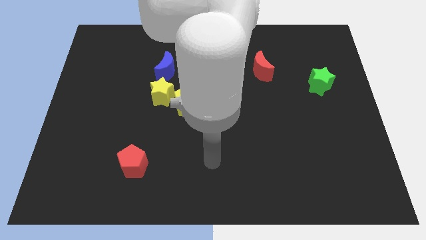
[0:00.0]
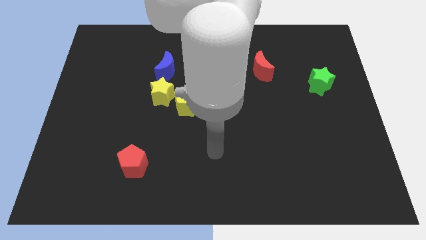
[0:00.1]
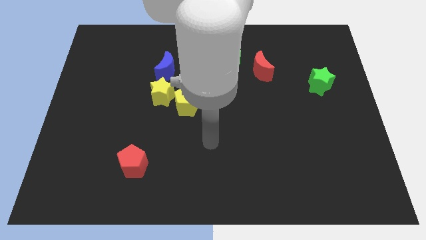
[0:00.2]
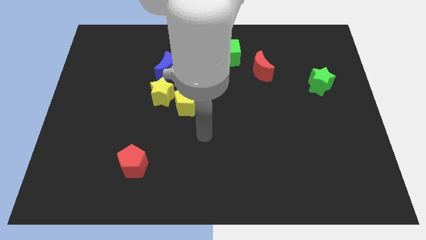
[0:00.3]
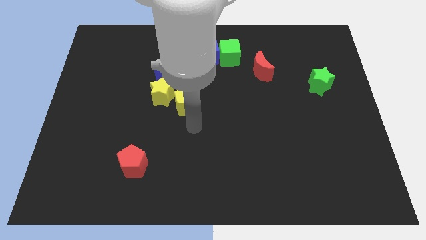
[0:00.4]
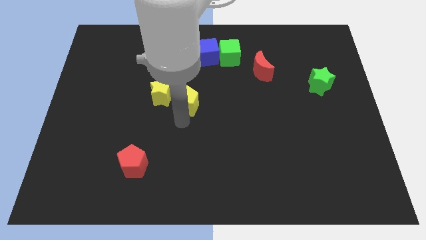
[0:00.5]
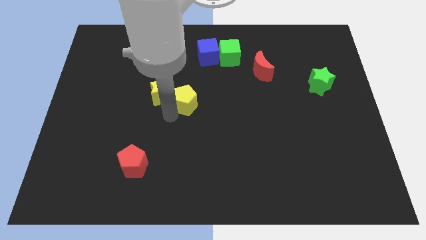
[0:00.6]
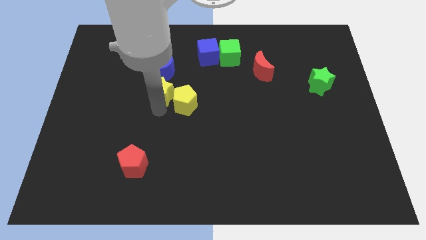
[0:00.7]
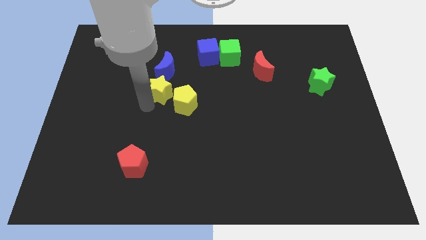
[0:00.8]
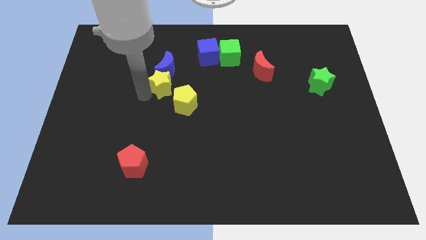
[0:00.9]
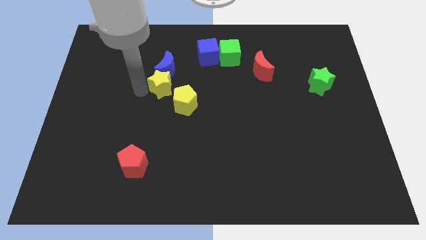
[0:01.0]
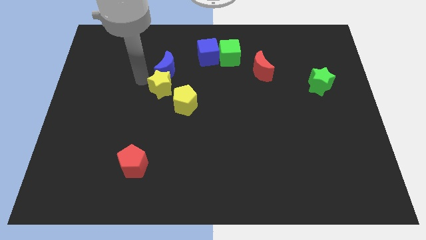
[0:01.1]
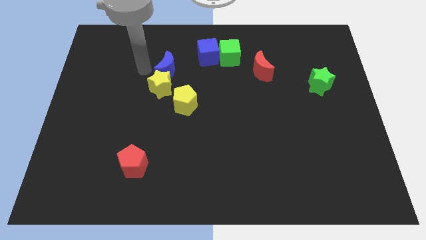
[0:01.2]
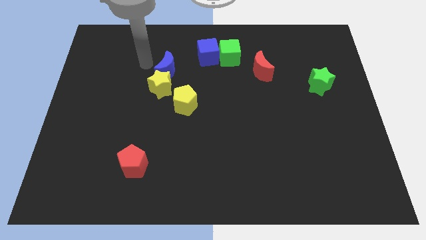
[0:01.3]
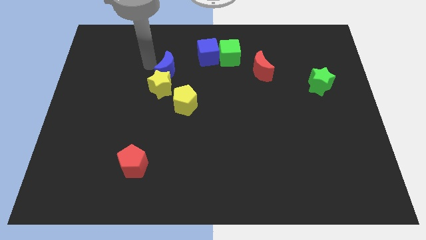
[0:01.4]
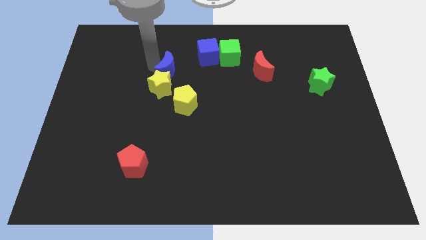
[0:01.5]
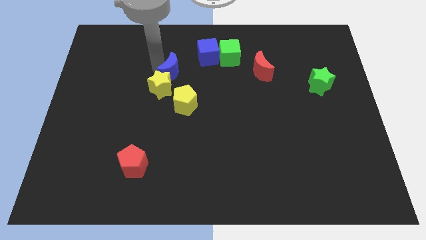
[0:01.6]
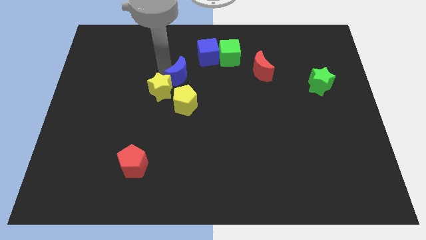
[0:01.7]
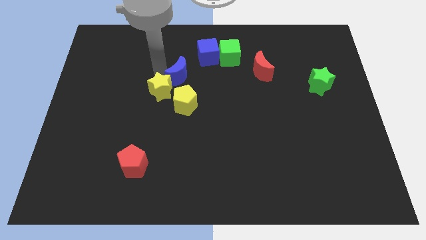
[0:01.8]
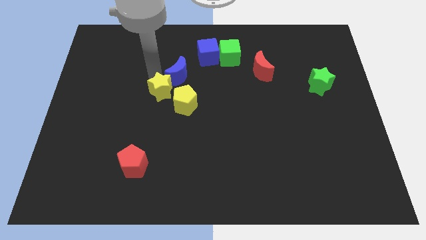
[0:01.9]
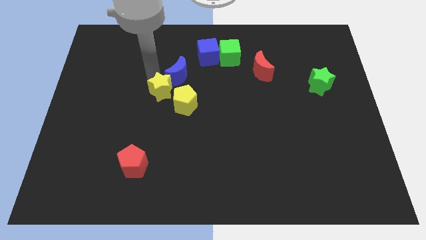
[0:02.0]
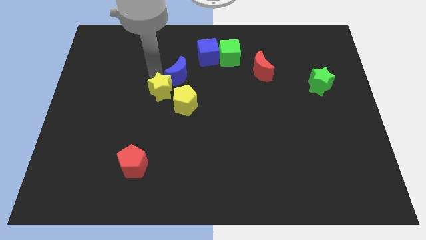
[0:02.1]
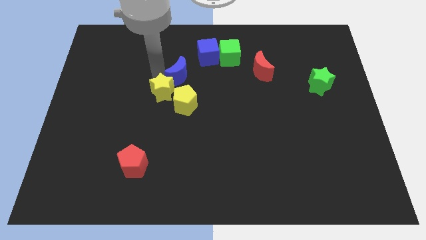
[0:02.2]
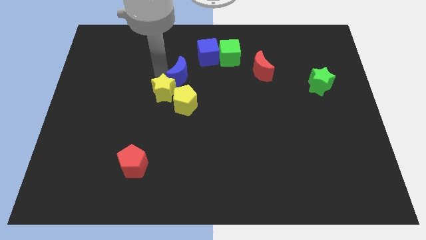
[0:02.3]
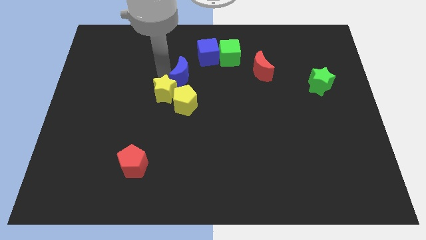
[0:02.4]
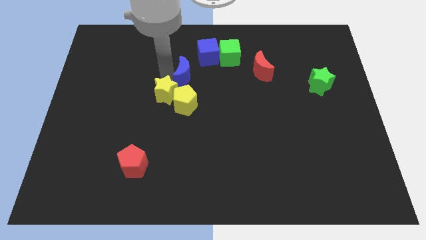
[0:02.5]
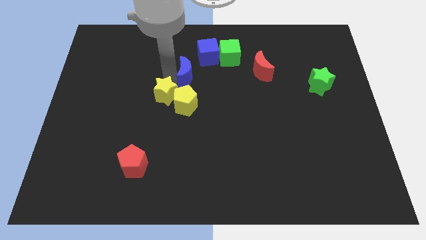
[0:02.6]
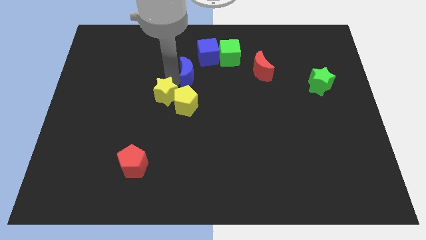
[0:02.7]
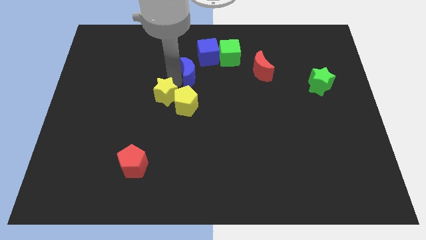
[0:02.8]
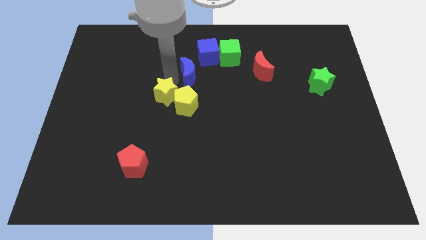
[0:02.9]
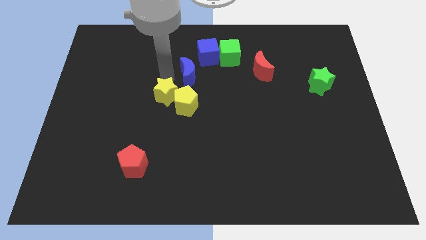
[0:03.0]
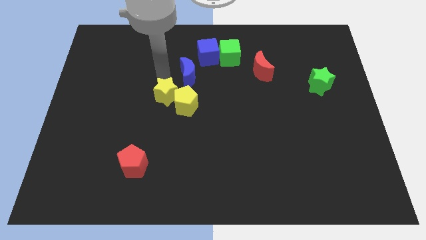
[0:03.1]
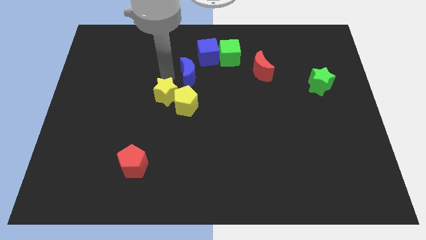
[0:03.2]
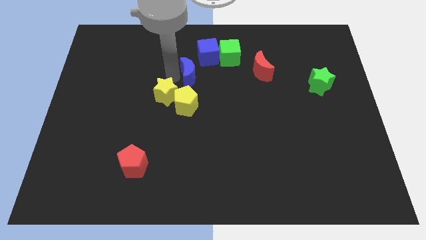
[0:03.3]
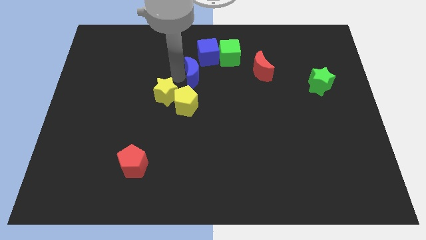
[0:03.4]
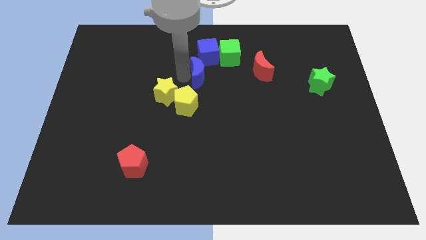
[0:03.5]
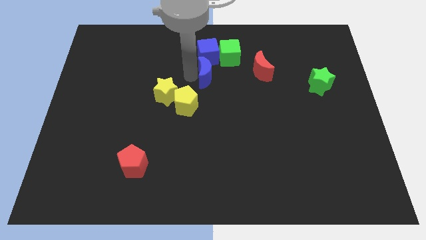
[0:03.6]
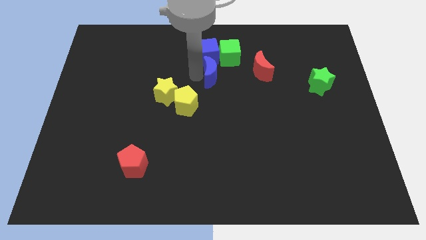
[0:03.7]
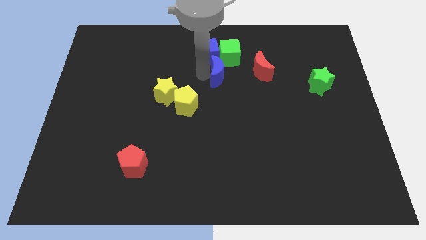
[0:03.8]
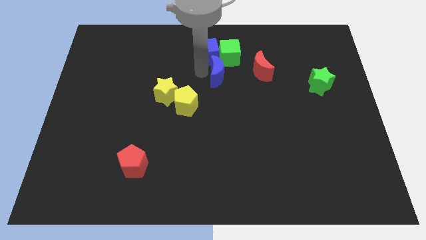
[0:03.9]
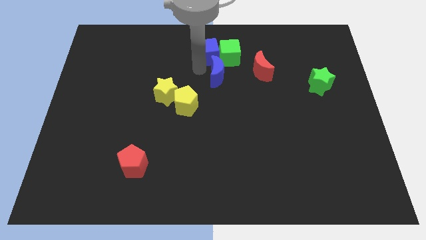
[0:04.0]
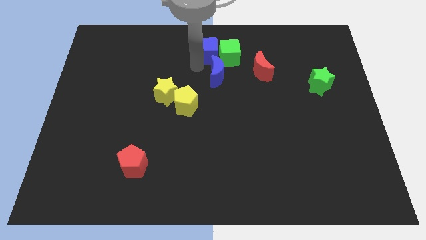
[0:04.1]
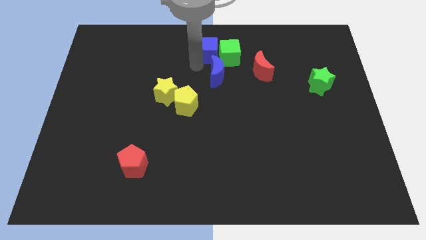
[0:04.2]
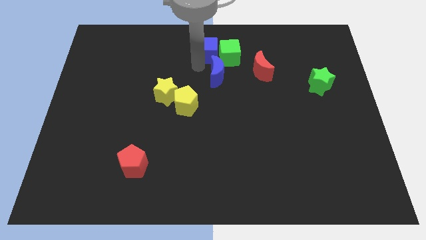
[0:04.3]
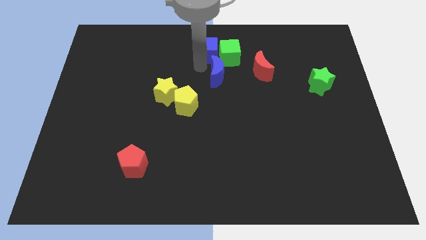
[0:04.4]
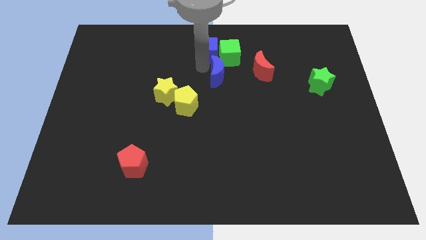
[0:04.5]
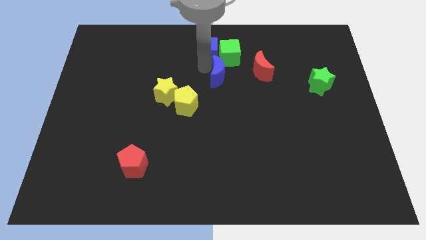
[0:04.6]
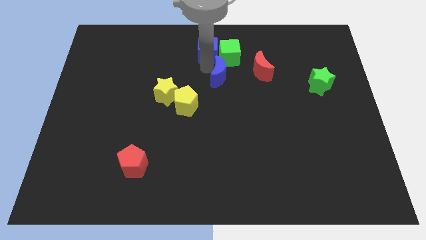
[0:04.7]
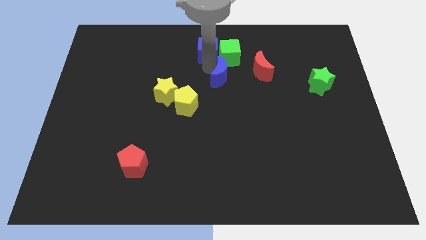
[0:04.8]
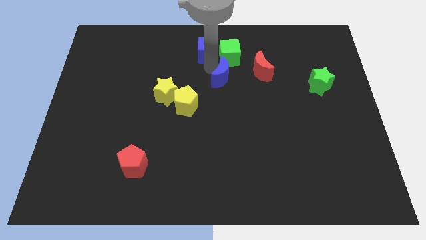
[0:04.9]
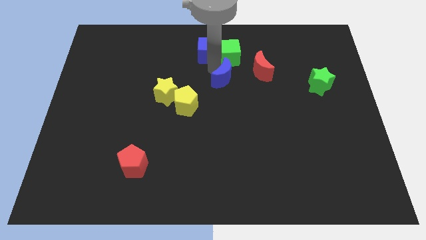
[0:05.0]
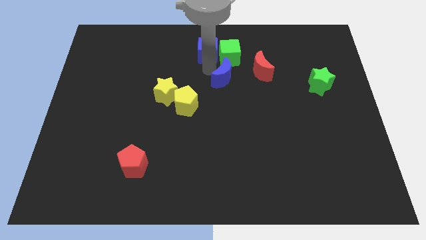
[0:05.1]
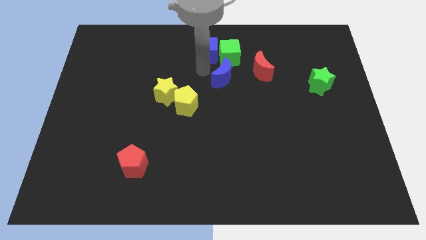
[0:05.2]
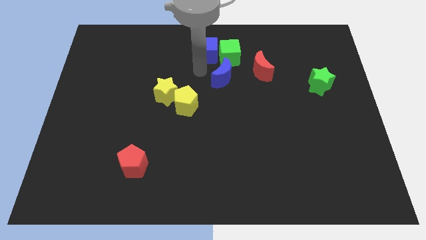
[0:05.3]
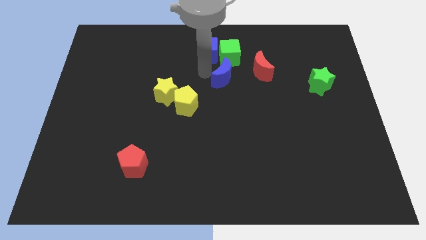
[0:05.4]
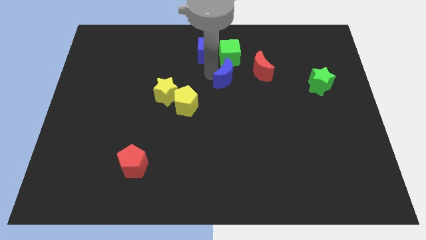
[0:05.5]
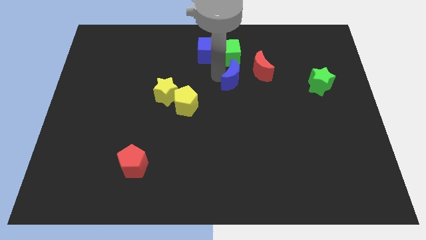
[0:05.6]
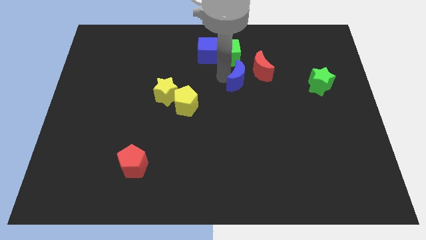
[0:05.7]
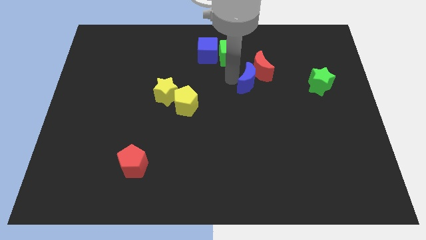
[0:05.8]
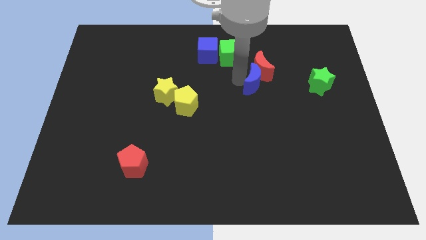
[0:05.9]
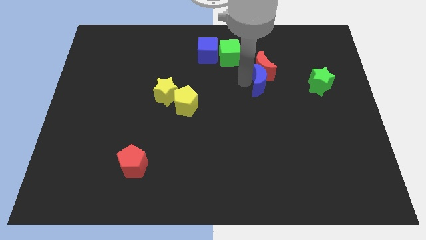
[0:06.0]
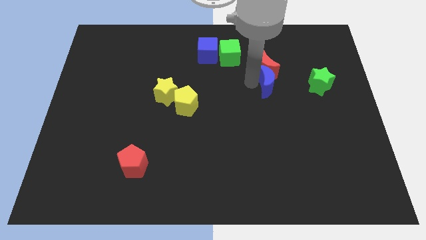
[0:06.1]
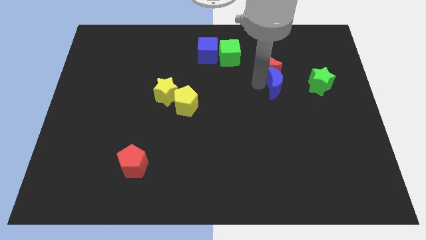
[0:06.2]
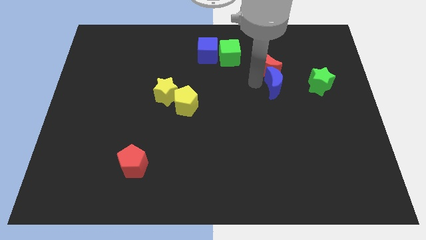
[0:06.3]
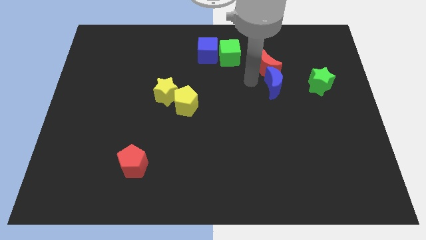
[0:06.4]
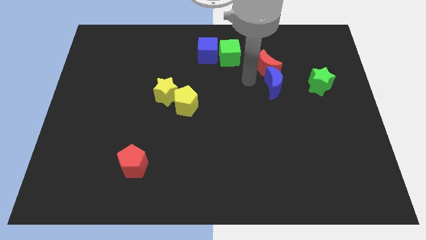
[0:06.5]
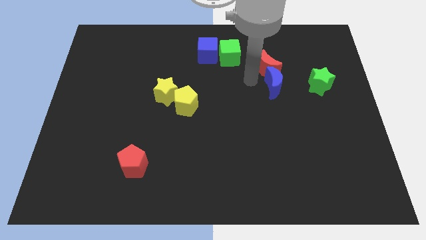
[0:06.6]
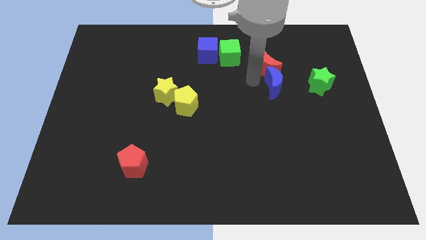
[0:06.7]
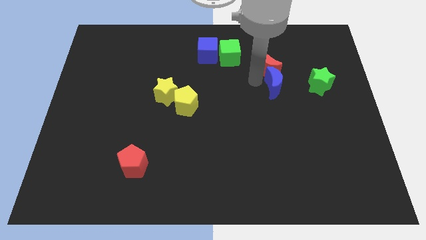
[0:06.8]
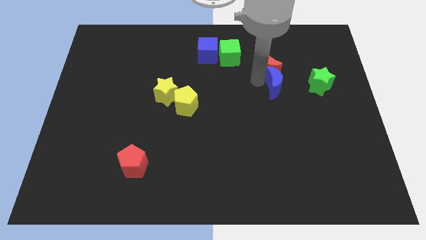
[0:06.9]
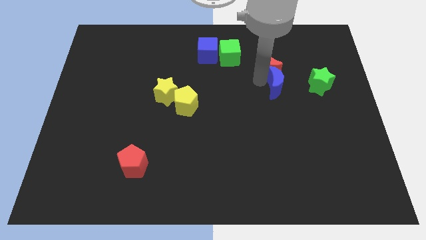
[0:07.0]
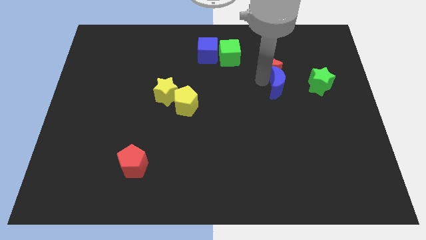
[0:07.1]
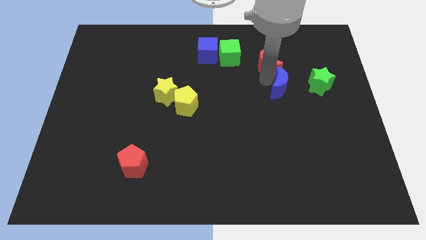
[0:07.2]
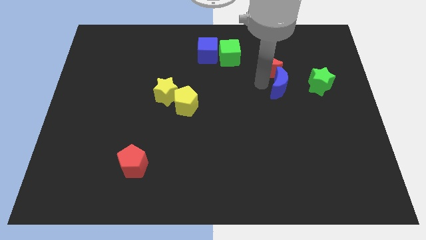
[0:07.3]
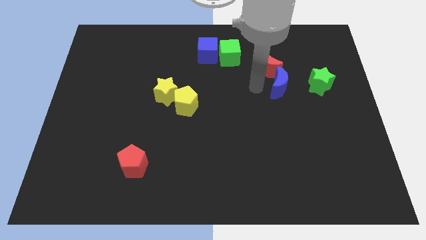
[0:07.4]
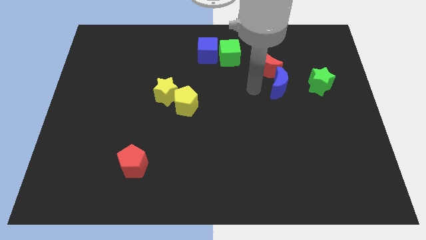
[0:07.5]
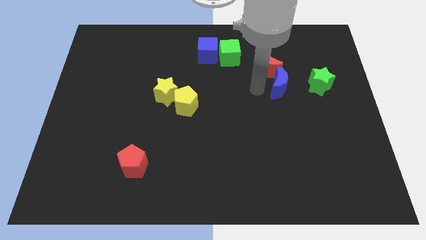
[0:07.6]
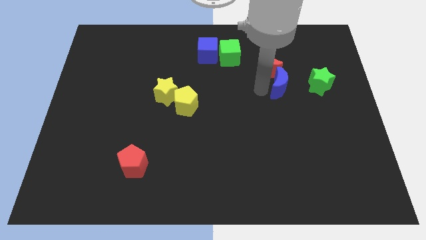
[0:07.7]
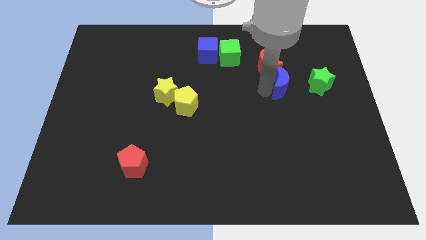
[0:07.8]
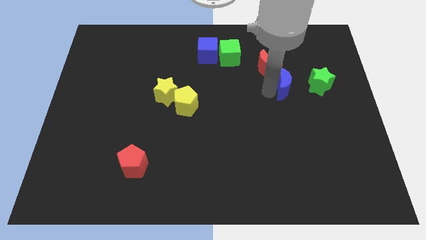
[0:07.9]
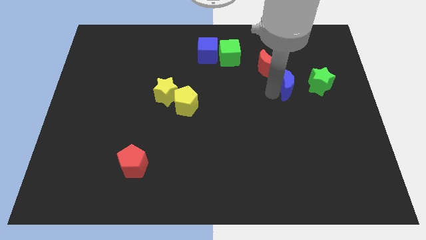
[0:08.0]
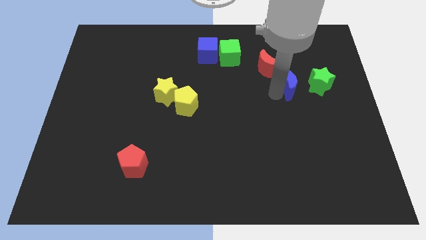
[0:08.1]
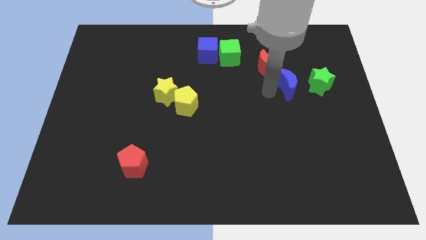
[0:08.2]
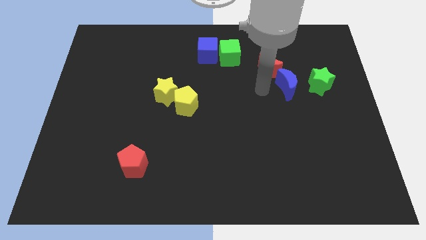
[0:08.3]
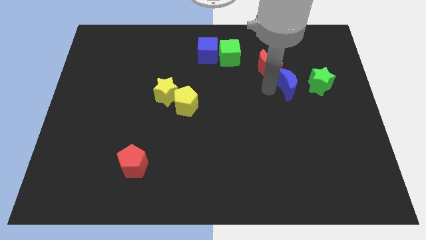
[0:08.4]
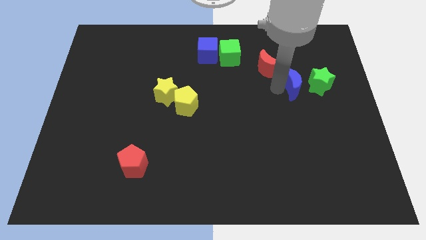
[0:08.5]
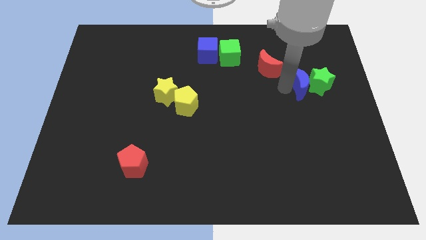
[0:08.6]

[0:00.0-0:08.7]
put the blue moon towards the green star
